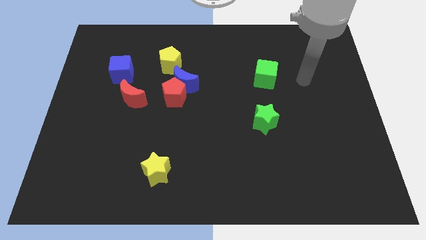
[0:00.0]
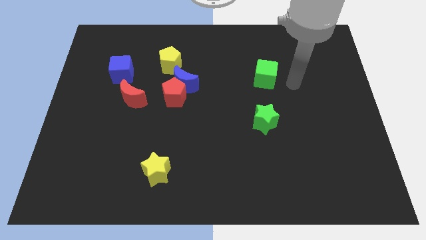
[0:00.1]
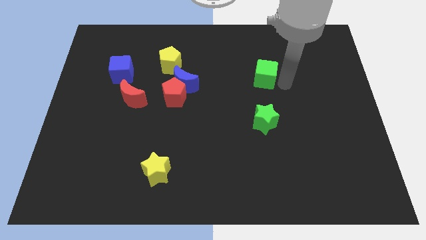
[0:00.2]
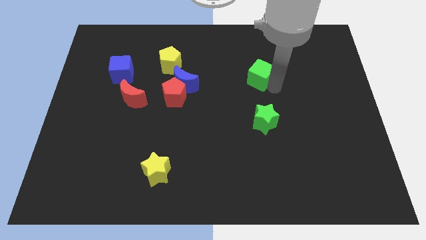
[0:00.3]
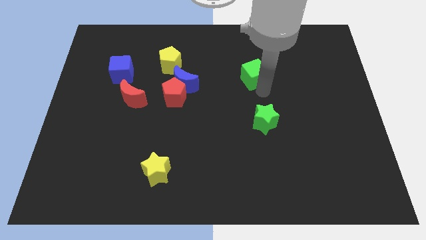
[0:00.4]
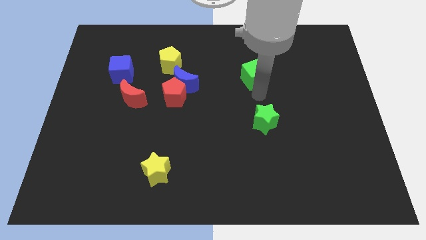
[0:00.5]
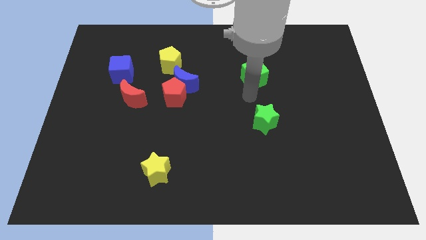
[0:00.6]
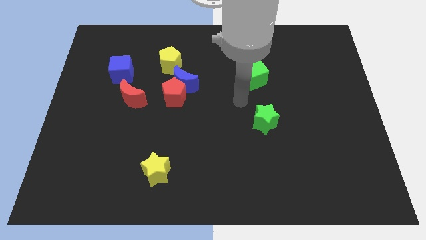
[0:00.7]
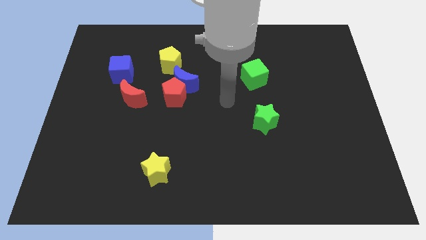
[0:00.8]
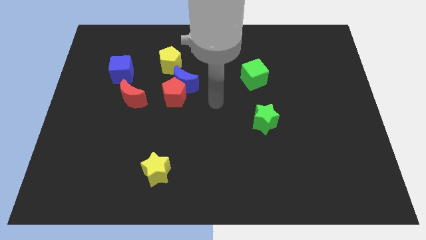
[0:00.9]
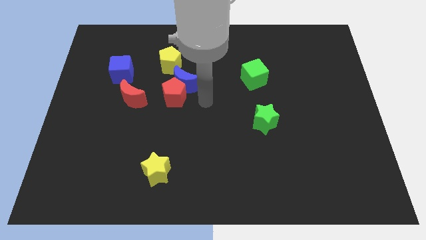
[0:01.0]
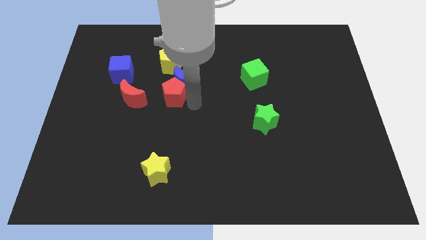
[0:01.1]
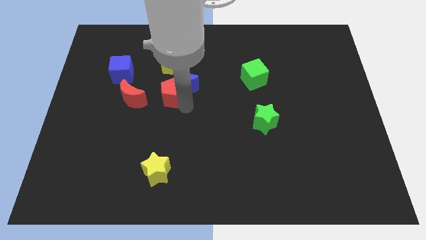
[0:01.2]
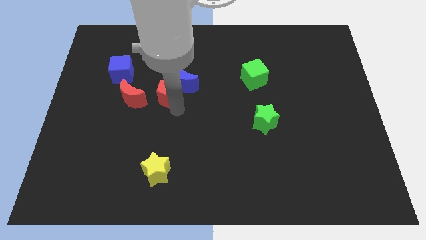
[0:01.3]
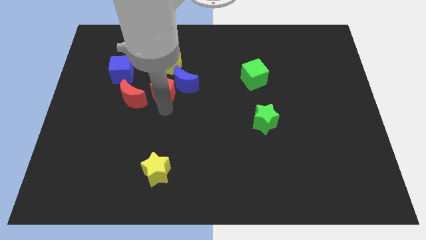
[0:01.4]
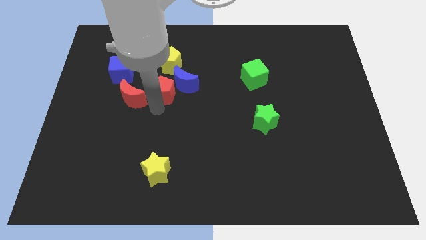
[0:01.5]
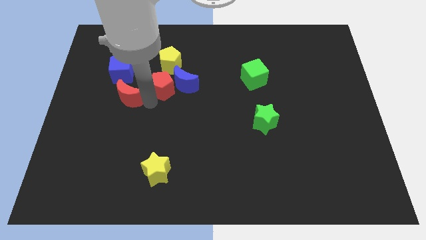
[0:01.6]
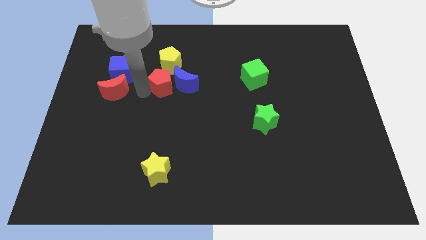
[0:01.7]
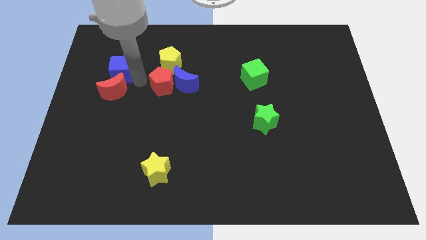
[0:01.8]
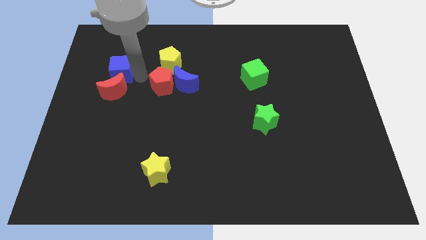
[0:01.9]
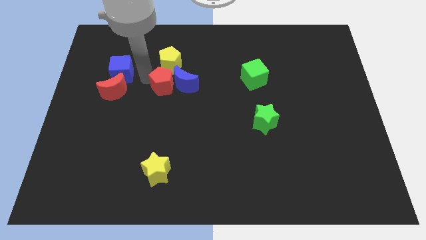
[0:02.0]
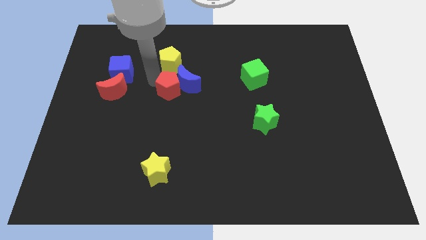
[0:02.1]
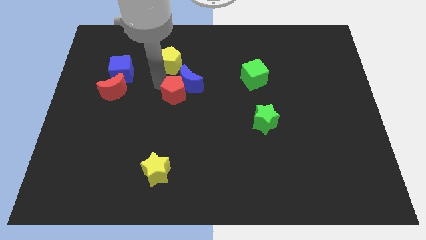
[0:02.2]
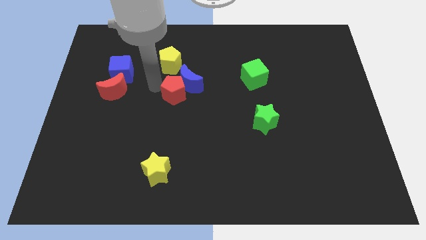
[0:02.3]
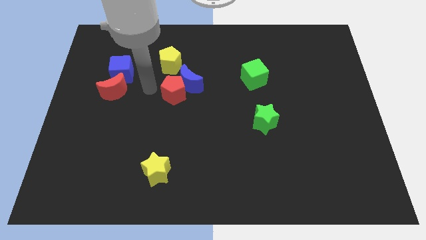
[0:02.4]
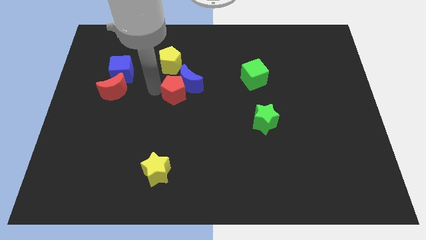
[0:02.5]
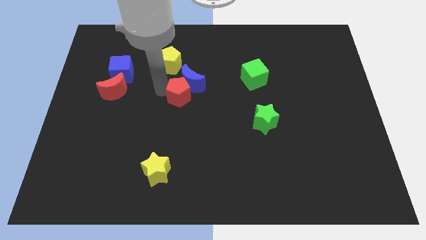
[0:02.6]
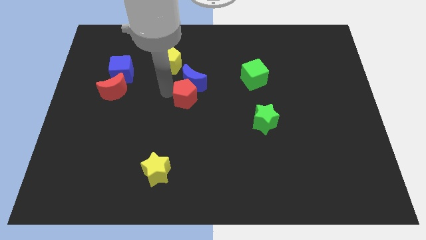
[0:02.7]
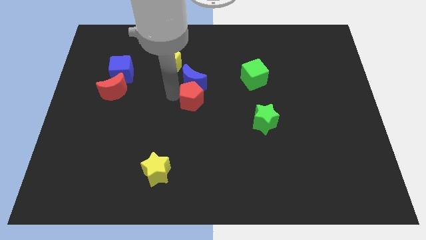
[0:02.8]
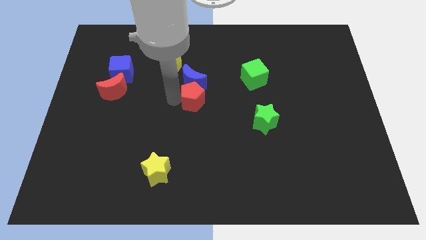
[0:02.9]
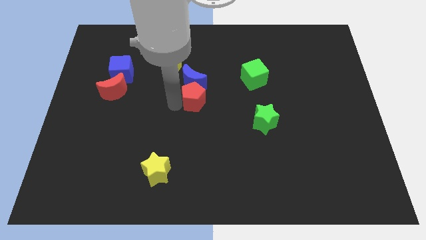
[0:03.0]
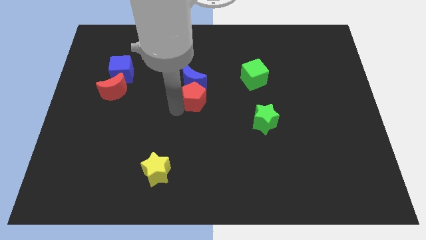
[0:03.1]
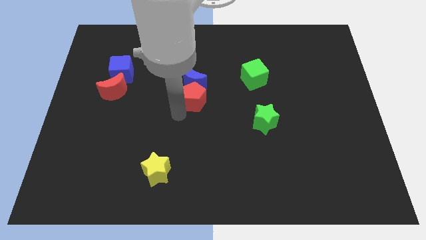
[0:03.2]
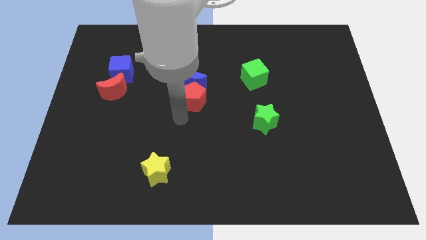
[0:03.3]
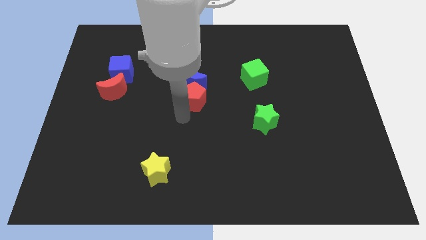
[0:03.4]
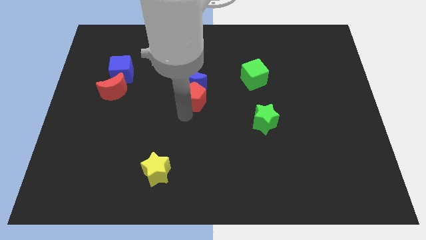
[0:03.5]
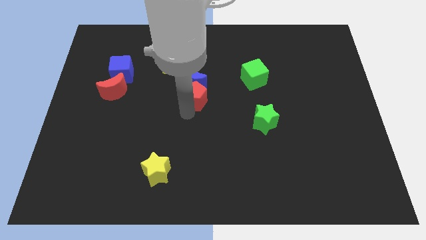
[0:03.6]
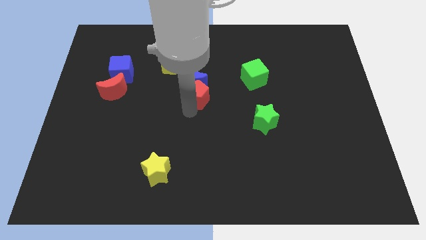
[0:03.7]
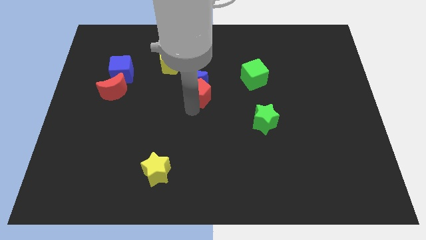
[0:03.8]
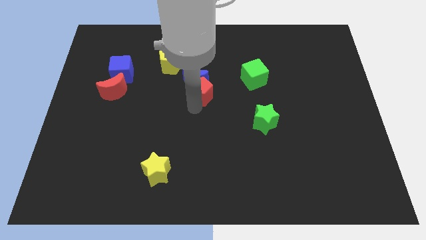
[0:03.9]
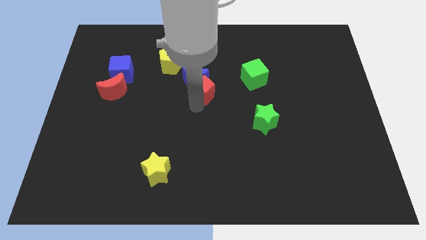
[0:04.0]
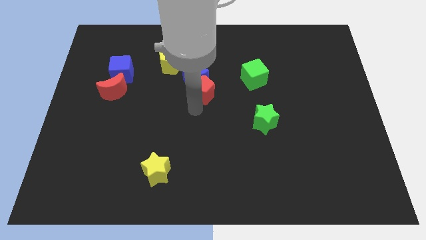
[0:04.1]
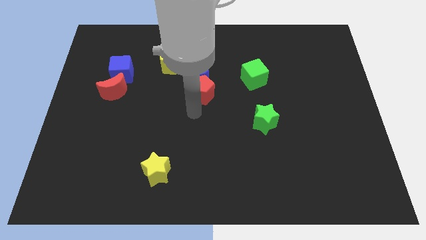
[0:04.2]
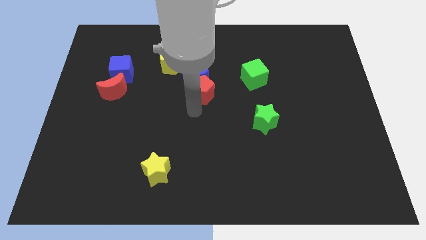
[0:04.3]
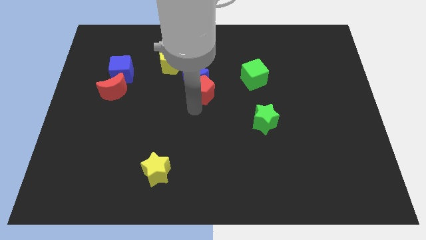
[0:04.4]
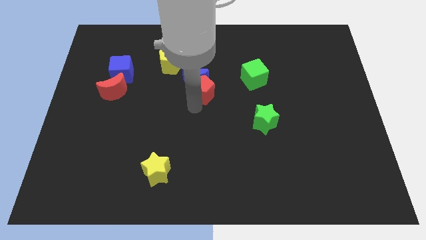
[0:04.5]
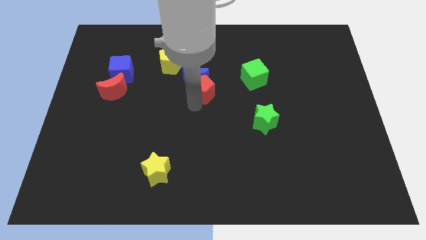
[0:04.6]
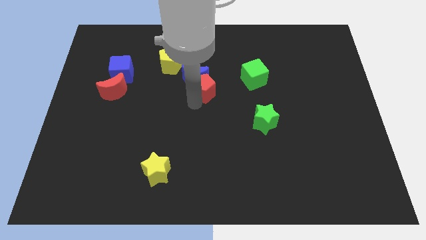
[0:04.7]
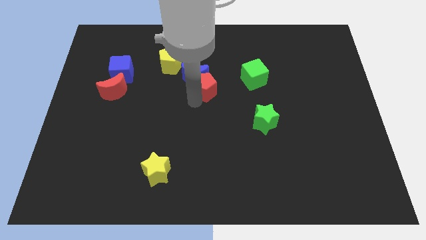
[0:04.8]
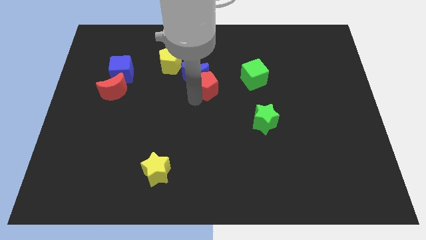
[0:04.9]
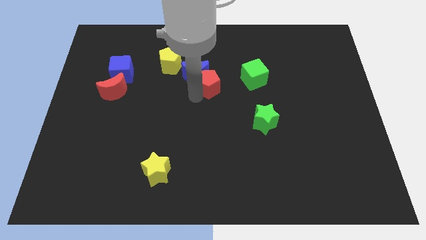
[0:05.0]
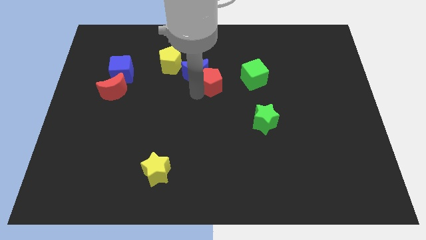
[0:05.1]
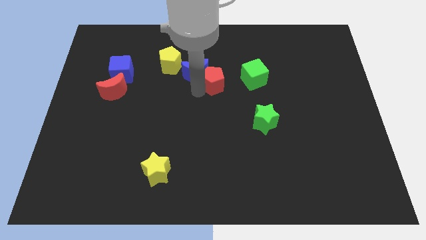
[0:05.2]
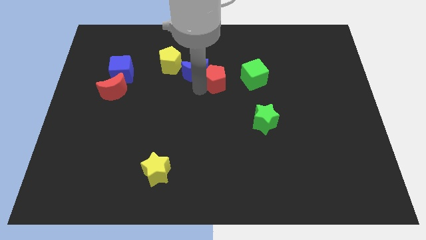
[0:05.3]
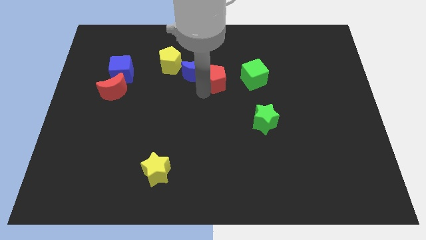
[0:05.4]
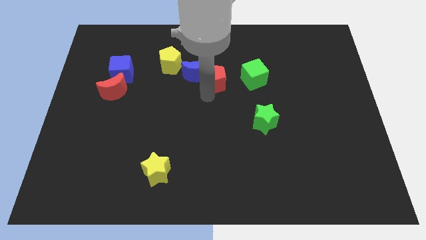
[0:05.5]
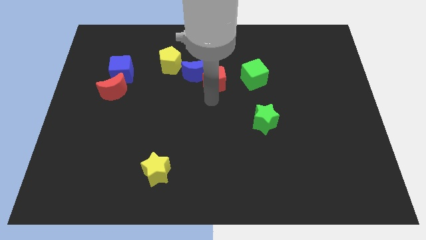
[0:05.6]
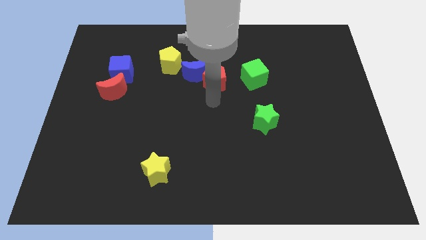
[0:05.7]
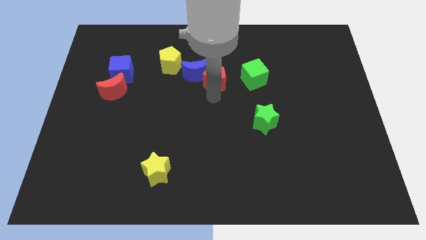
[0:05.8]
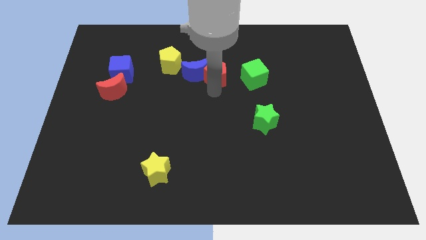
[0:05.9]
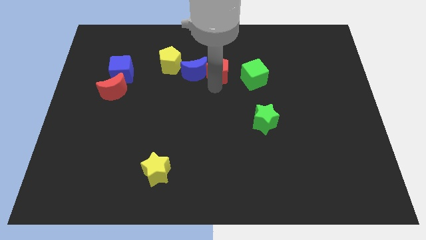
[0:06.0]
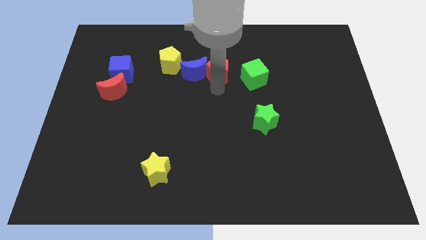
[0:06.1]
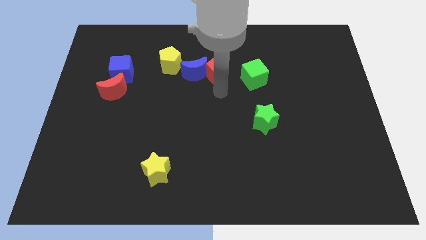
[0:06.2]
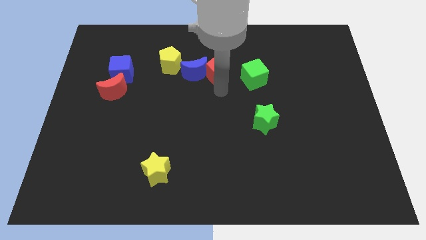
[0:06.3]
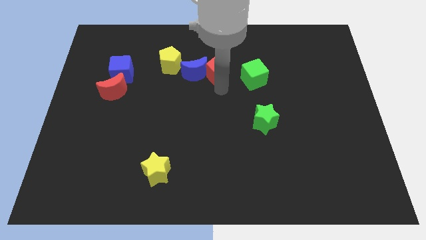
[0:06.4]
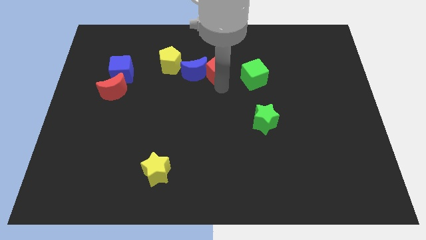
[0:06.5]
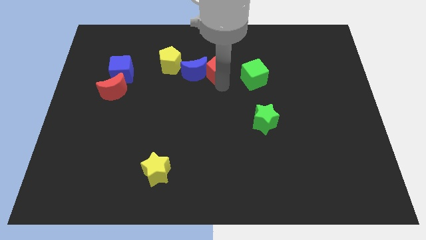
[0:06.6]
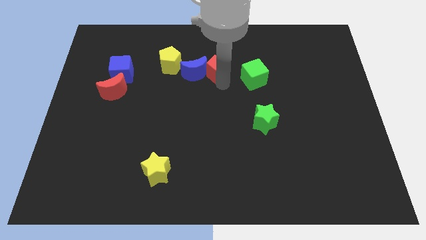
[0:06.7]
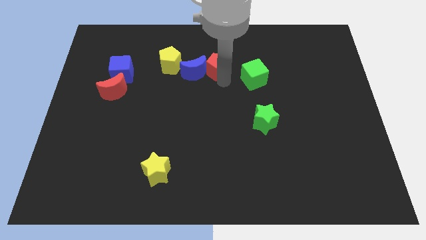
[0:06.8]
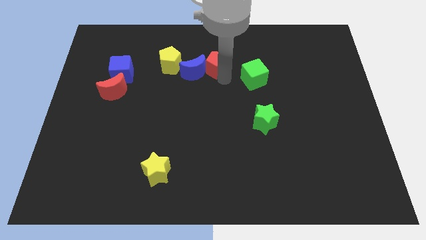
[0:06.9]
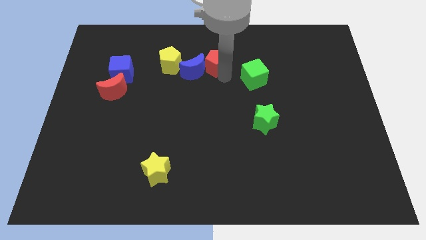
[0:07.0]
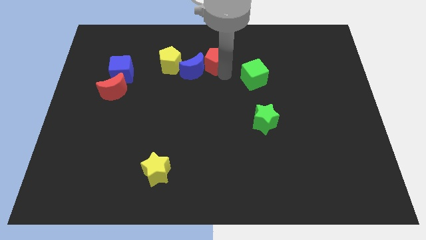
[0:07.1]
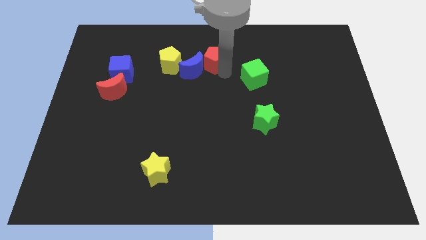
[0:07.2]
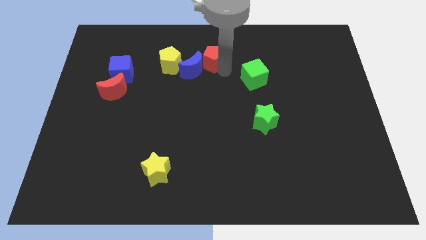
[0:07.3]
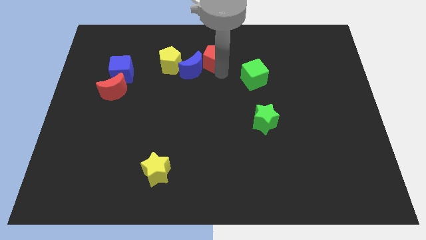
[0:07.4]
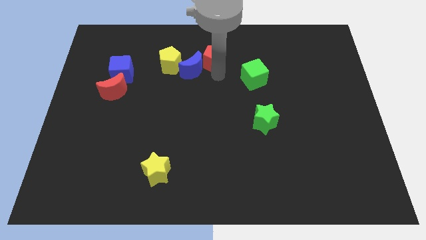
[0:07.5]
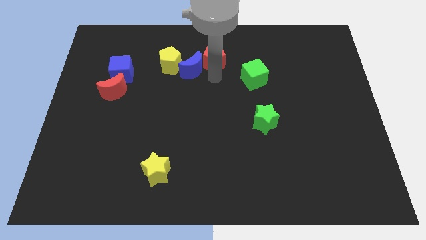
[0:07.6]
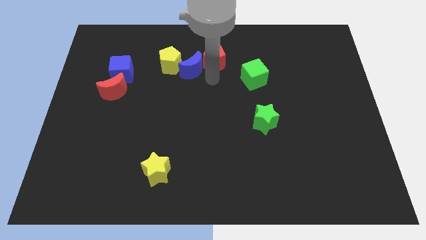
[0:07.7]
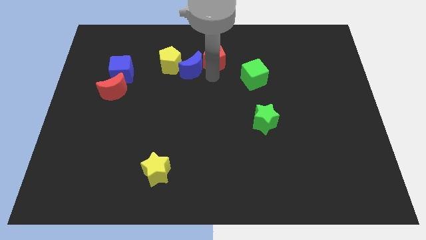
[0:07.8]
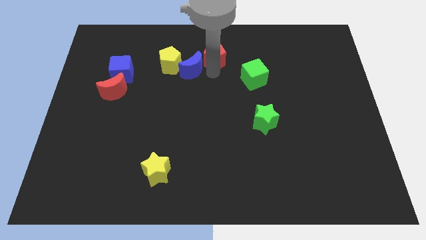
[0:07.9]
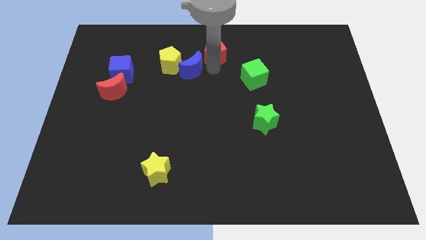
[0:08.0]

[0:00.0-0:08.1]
put the red pentagon to the top side
